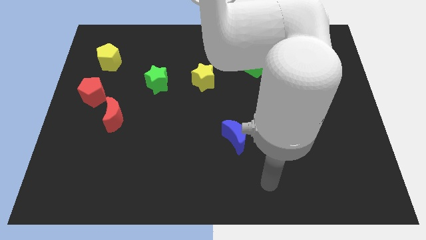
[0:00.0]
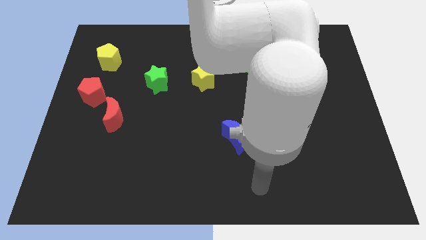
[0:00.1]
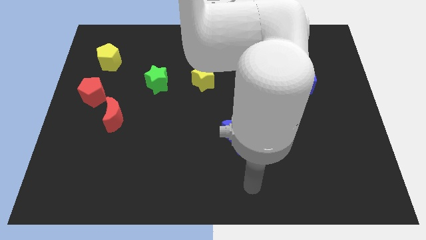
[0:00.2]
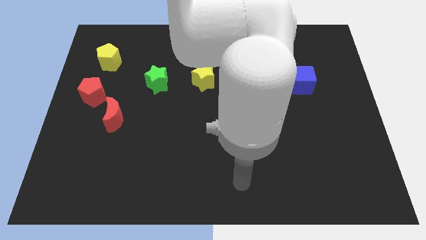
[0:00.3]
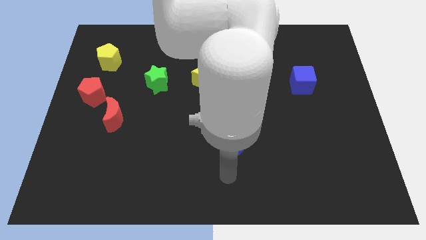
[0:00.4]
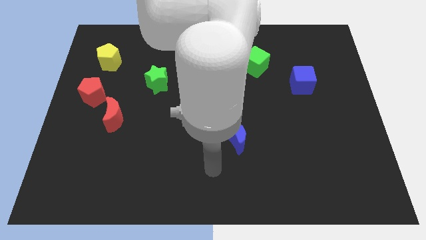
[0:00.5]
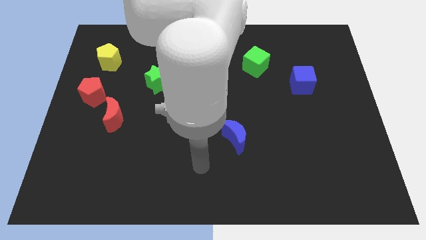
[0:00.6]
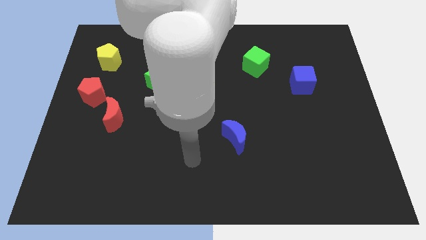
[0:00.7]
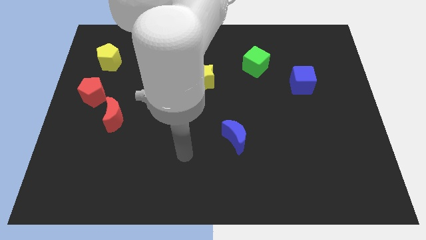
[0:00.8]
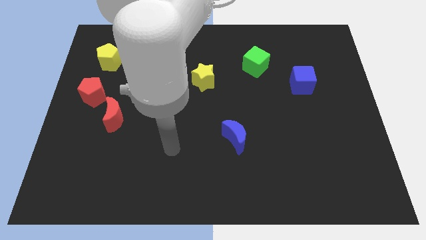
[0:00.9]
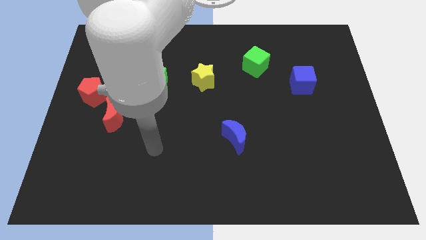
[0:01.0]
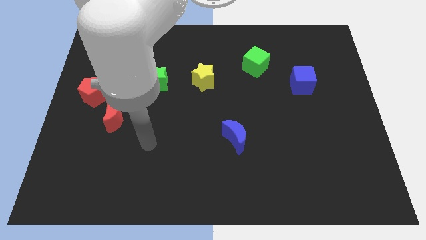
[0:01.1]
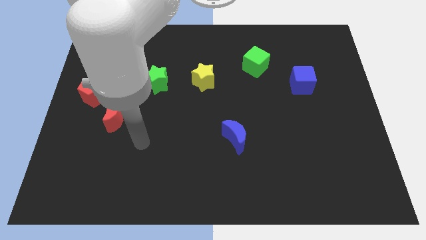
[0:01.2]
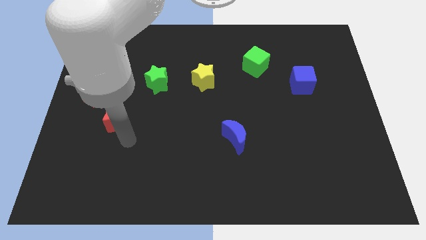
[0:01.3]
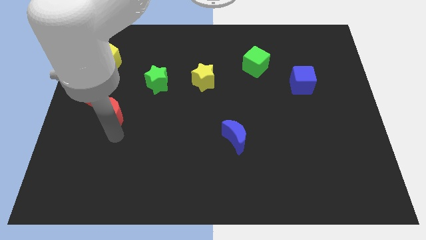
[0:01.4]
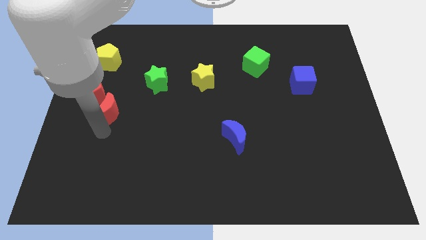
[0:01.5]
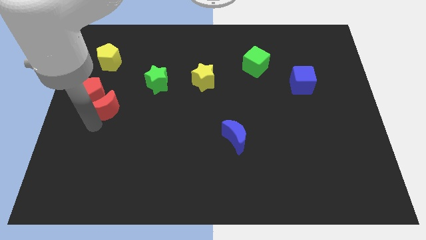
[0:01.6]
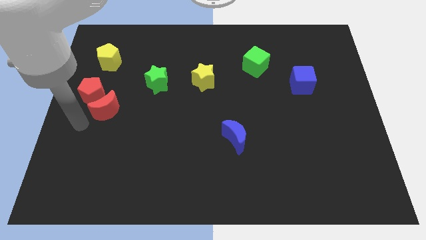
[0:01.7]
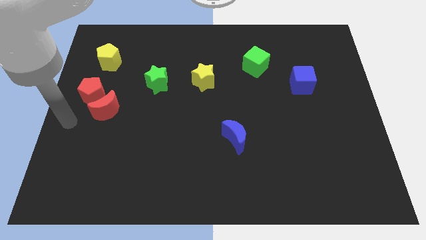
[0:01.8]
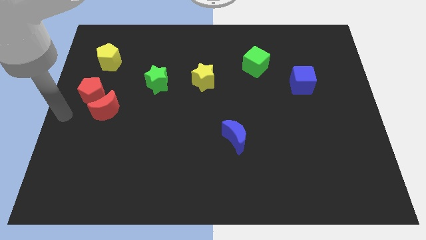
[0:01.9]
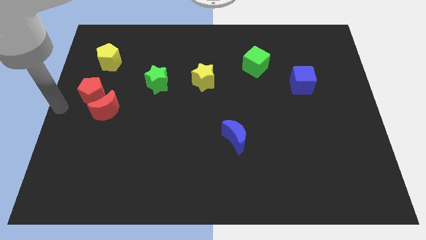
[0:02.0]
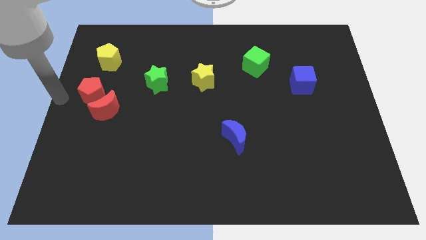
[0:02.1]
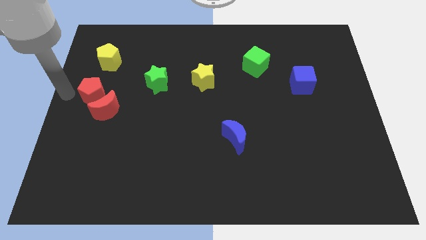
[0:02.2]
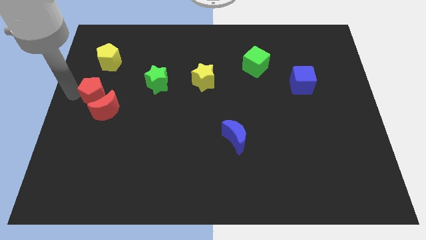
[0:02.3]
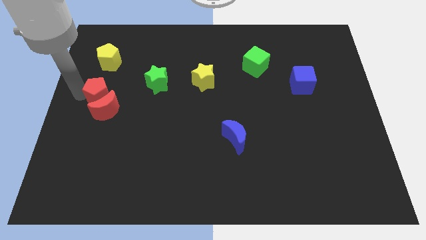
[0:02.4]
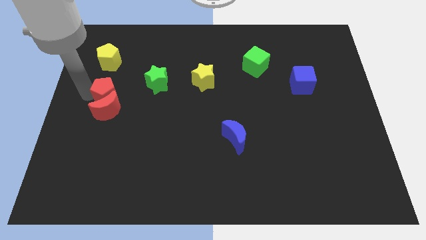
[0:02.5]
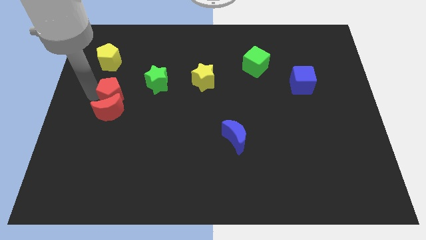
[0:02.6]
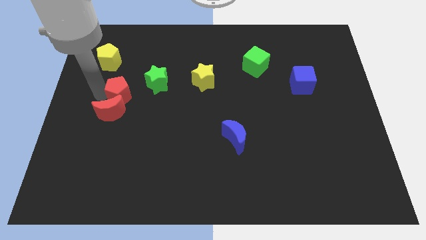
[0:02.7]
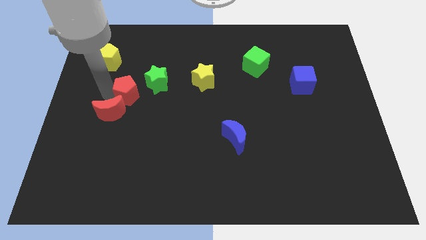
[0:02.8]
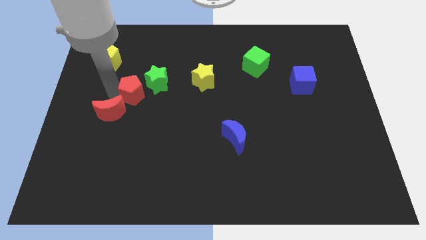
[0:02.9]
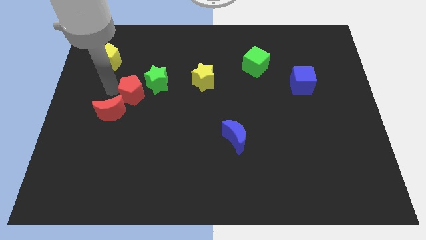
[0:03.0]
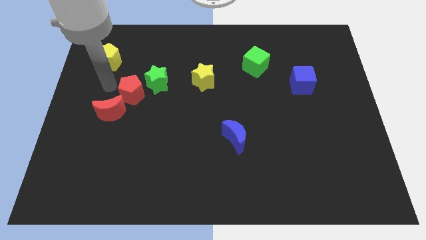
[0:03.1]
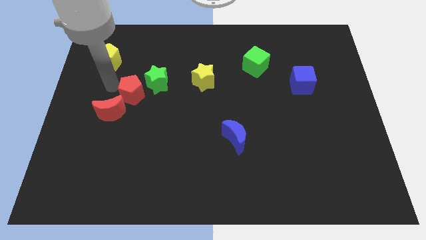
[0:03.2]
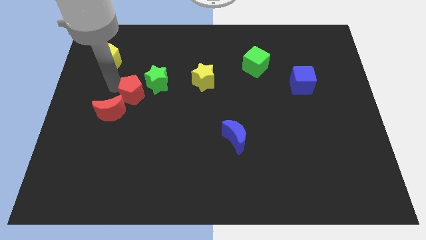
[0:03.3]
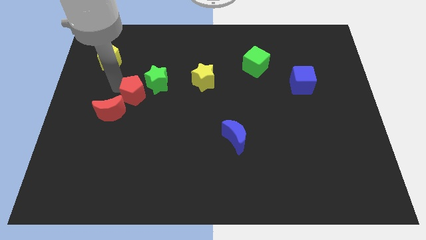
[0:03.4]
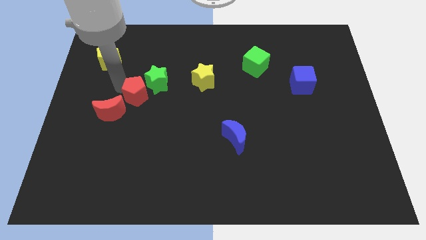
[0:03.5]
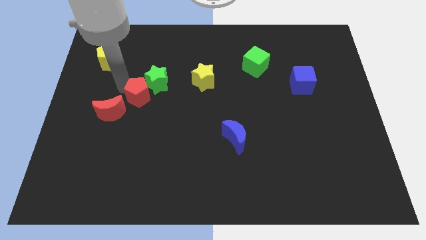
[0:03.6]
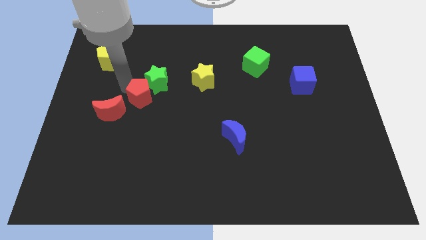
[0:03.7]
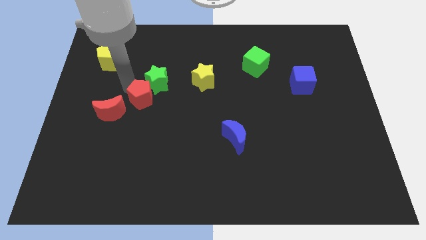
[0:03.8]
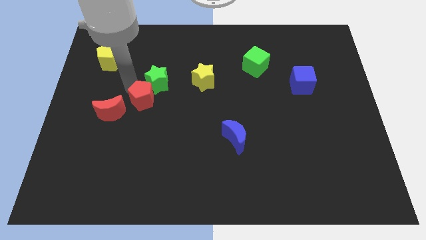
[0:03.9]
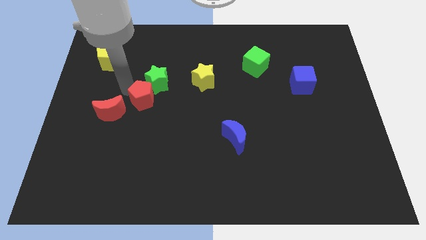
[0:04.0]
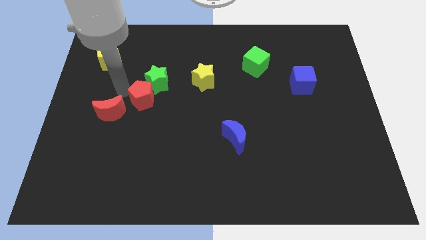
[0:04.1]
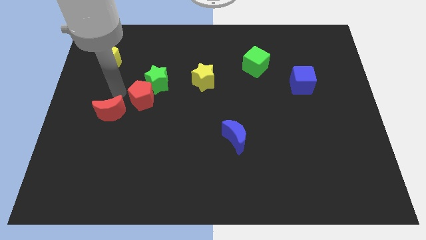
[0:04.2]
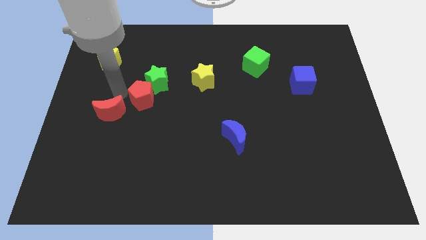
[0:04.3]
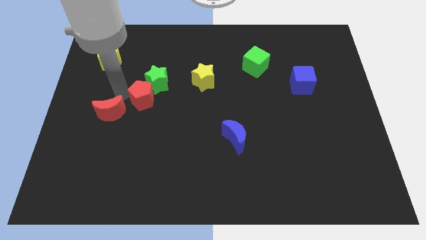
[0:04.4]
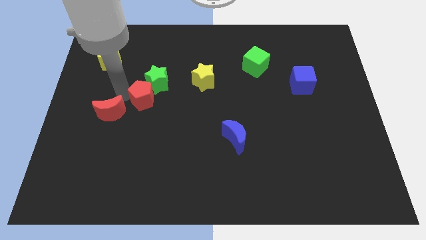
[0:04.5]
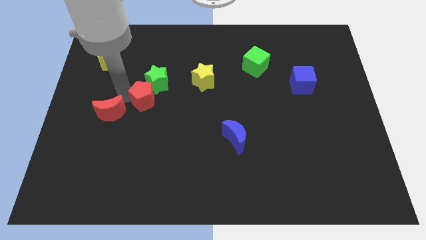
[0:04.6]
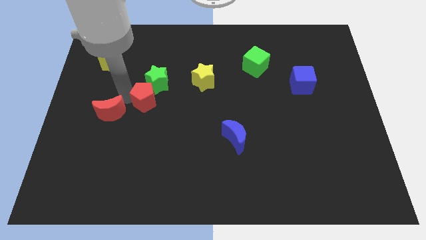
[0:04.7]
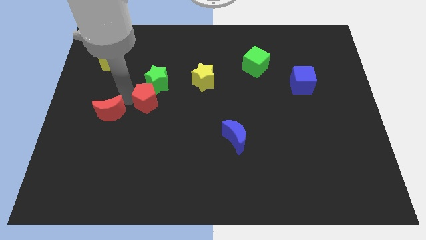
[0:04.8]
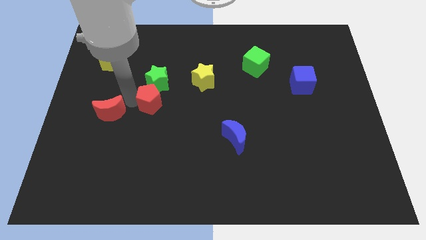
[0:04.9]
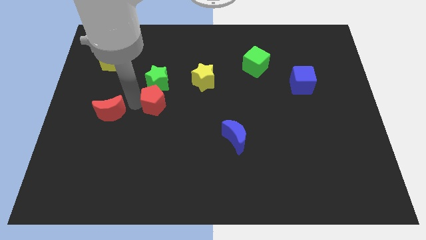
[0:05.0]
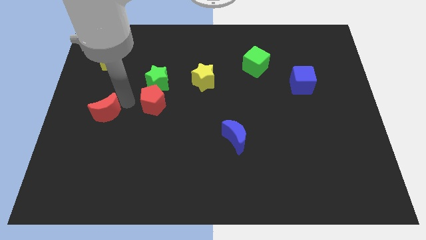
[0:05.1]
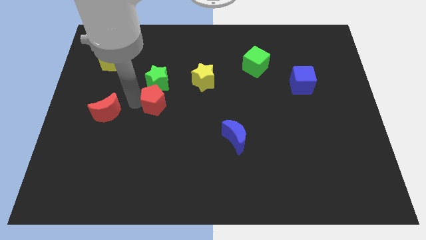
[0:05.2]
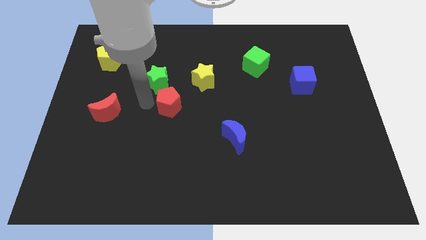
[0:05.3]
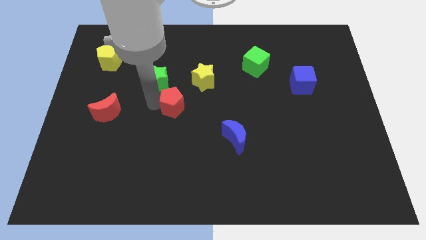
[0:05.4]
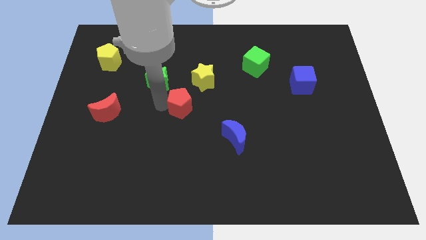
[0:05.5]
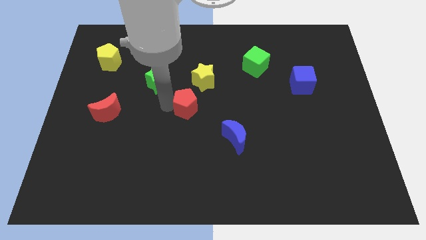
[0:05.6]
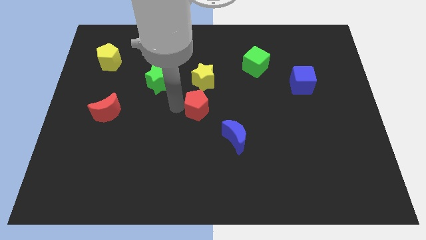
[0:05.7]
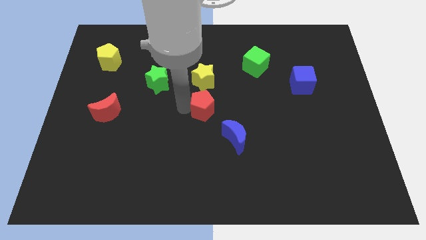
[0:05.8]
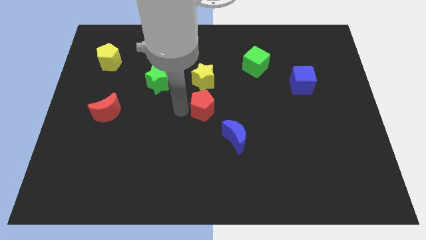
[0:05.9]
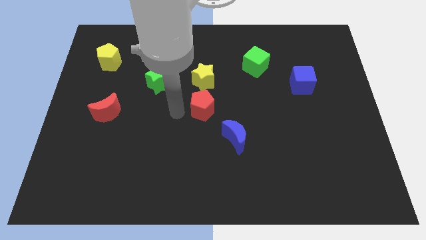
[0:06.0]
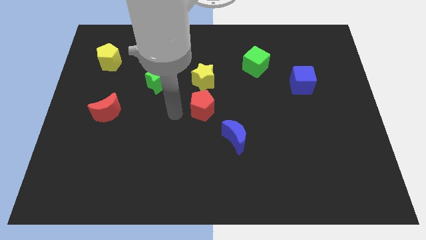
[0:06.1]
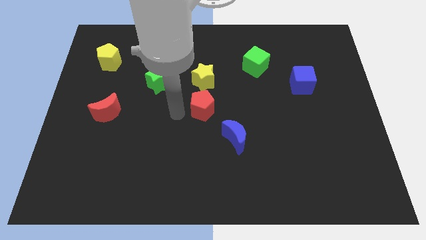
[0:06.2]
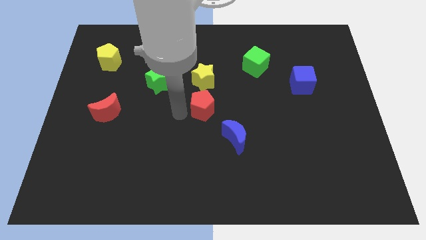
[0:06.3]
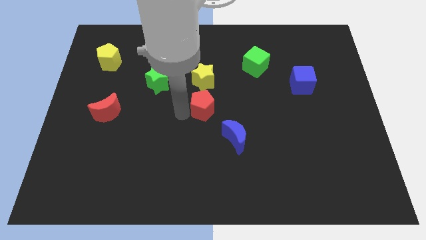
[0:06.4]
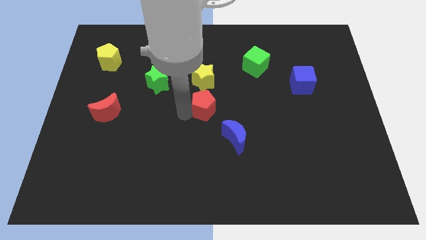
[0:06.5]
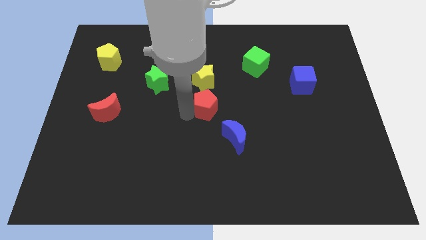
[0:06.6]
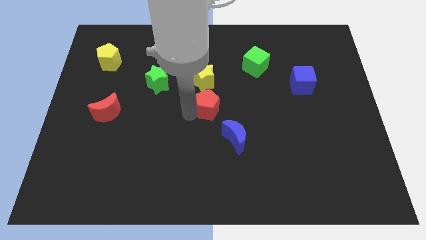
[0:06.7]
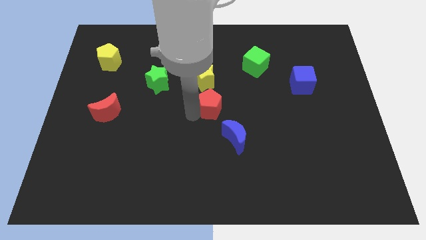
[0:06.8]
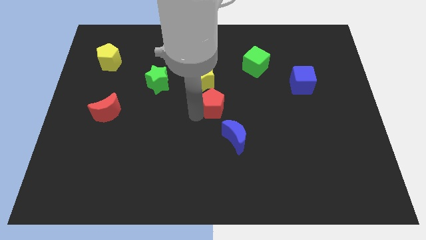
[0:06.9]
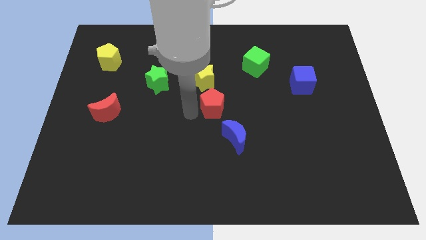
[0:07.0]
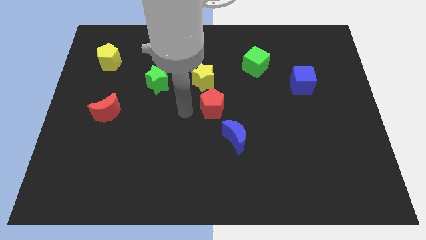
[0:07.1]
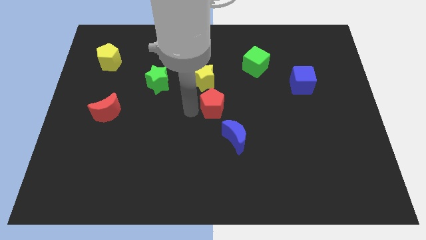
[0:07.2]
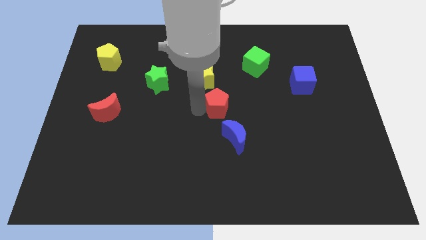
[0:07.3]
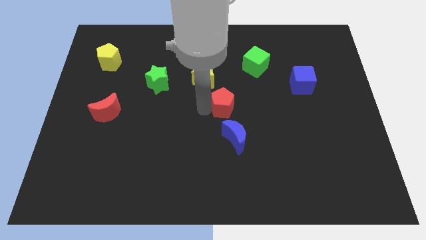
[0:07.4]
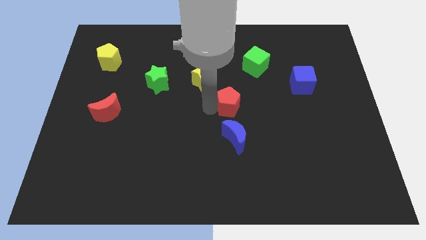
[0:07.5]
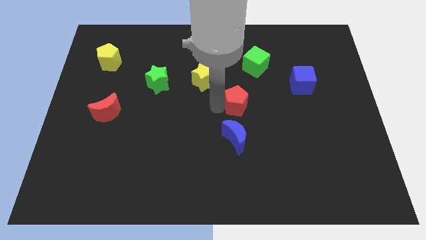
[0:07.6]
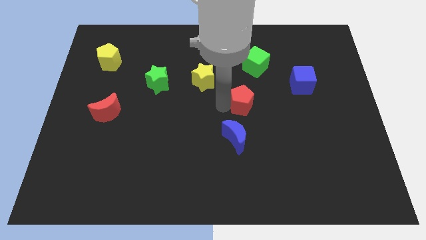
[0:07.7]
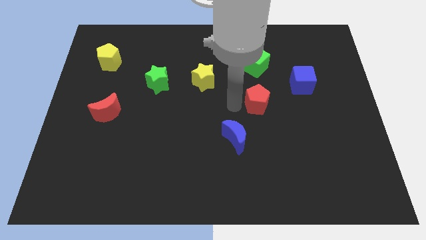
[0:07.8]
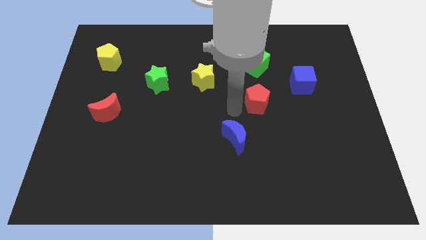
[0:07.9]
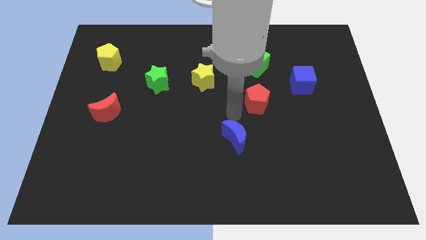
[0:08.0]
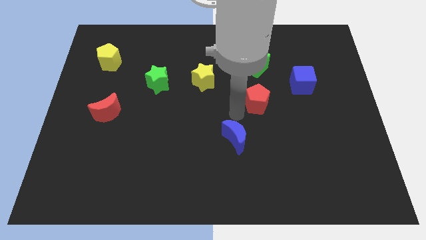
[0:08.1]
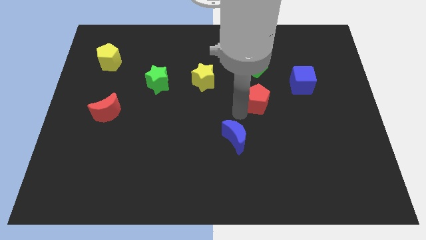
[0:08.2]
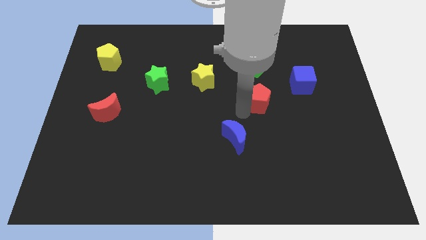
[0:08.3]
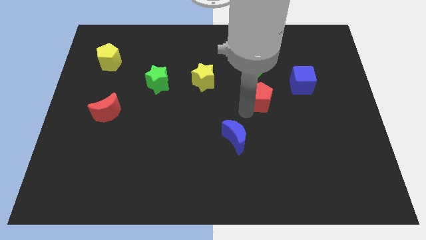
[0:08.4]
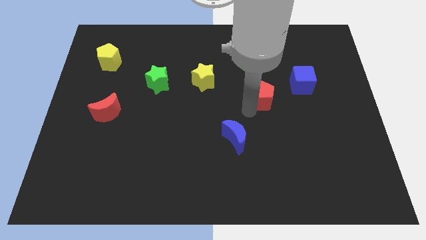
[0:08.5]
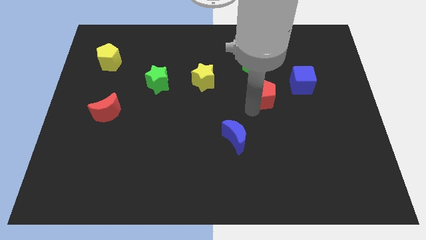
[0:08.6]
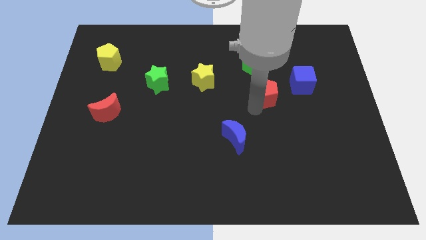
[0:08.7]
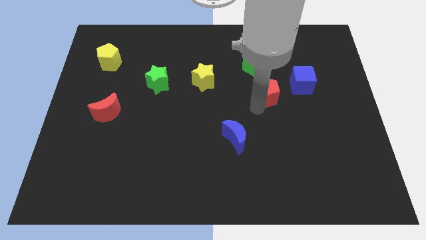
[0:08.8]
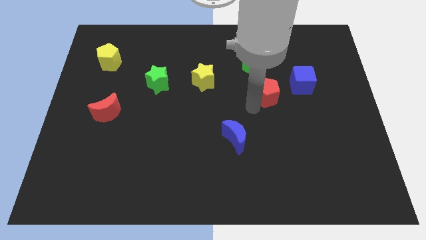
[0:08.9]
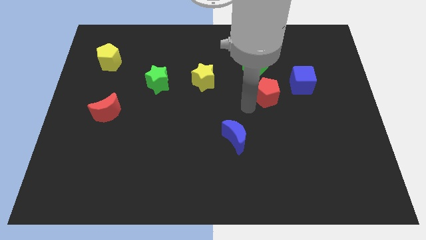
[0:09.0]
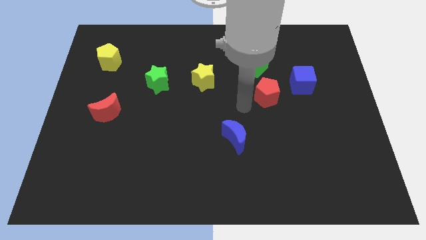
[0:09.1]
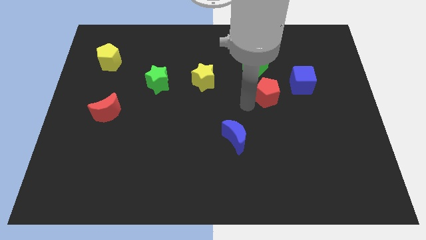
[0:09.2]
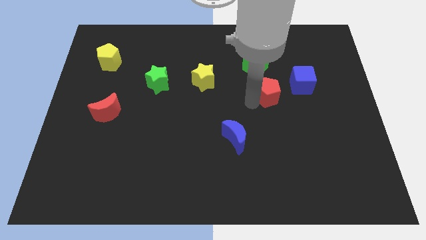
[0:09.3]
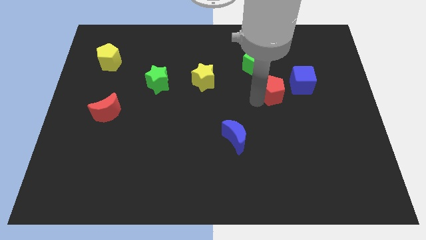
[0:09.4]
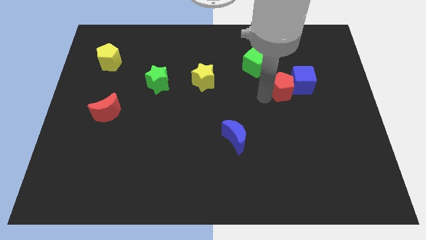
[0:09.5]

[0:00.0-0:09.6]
slide the red pentagon to the blue cube
